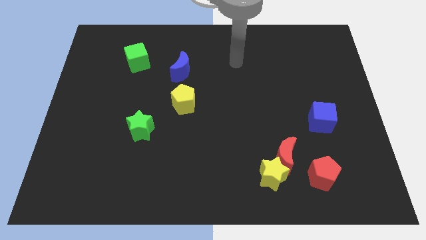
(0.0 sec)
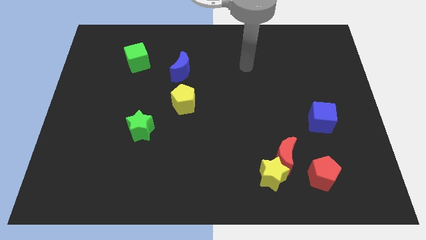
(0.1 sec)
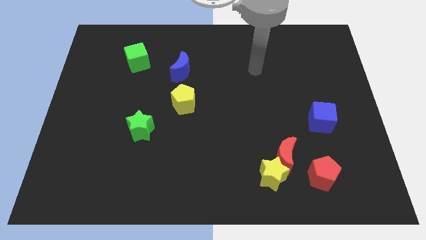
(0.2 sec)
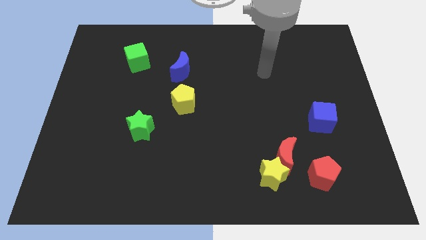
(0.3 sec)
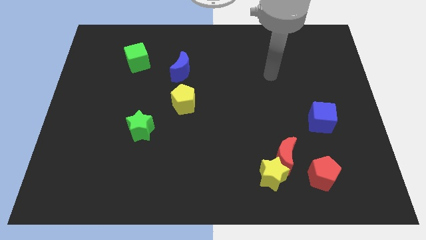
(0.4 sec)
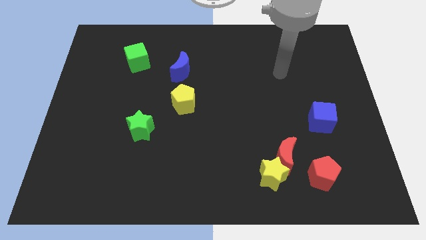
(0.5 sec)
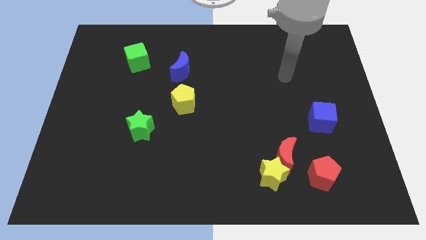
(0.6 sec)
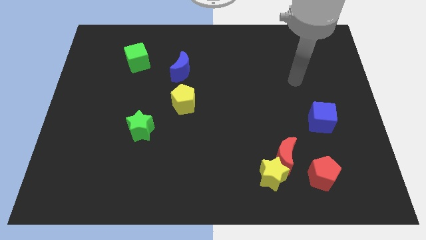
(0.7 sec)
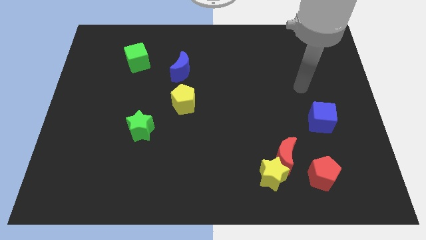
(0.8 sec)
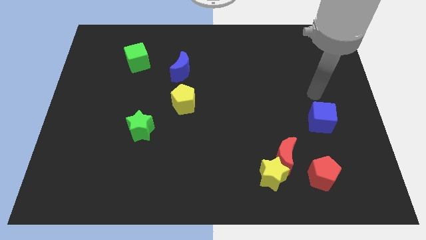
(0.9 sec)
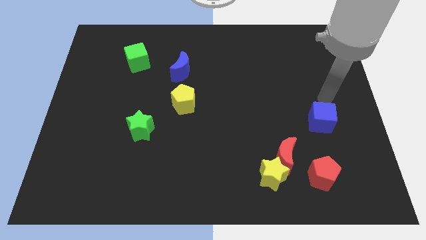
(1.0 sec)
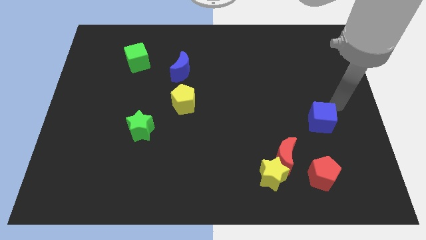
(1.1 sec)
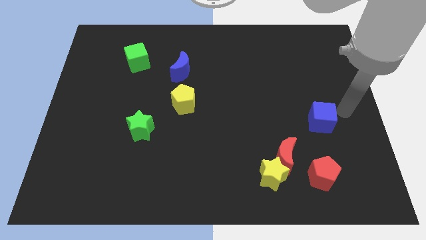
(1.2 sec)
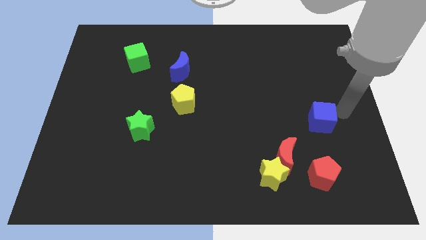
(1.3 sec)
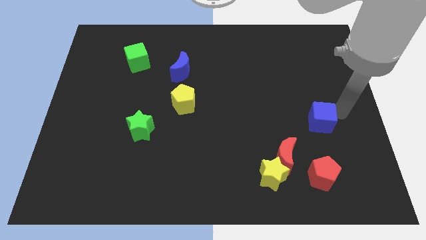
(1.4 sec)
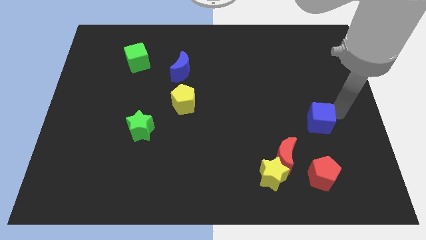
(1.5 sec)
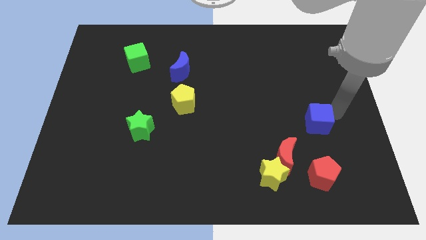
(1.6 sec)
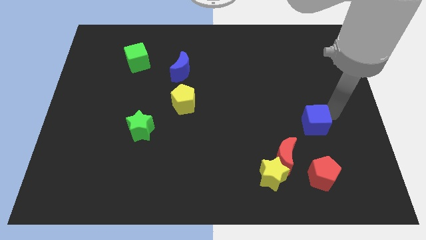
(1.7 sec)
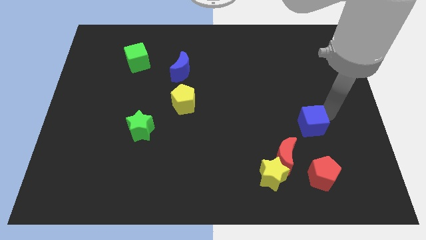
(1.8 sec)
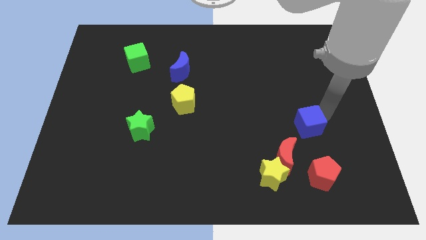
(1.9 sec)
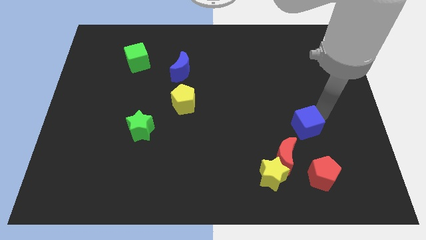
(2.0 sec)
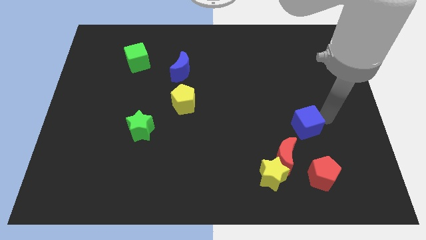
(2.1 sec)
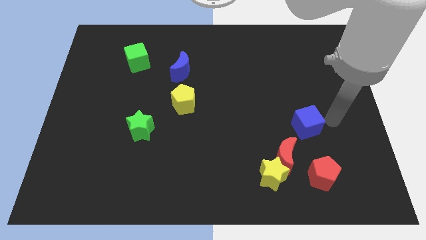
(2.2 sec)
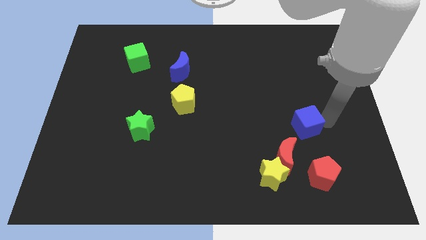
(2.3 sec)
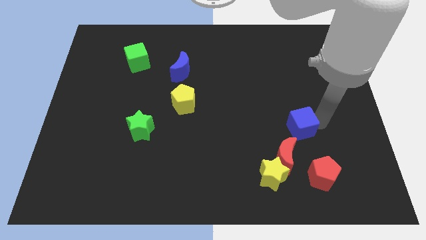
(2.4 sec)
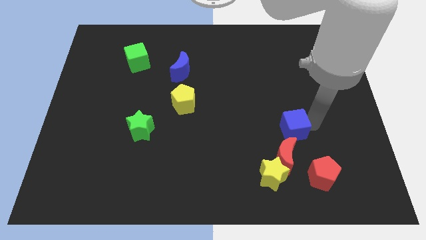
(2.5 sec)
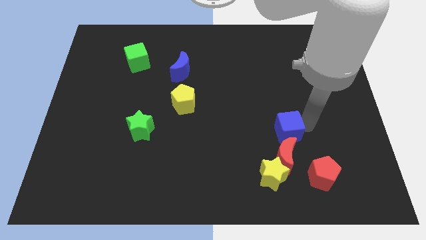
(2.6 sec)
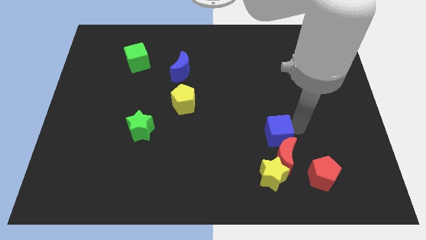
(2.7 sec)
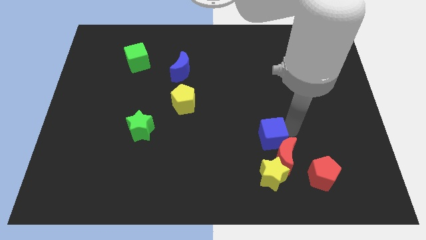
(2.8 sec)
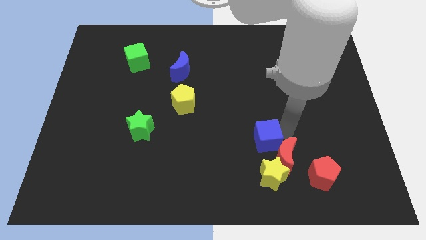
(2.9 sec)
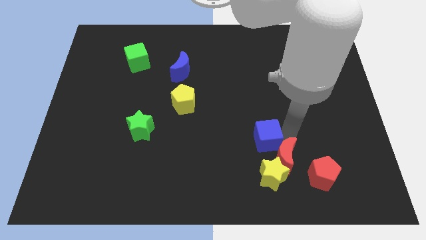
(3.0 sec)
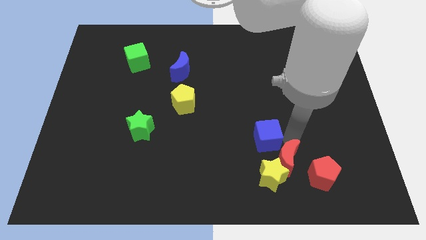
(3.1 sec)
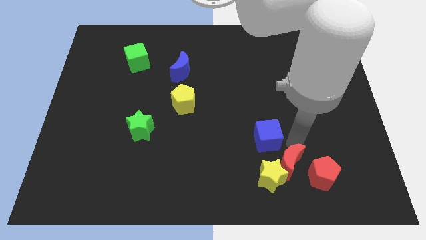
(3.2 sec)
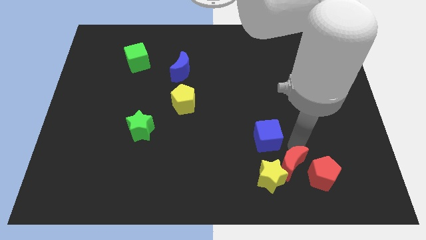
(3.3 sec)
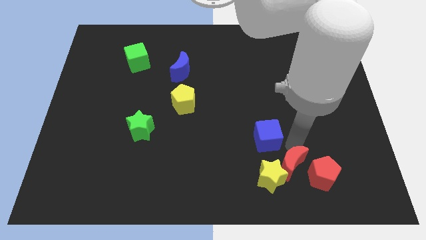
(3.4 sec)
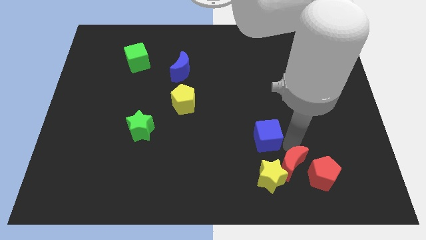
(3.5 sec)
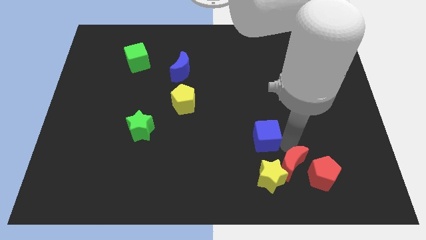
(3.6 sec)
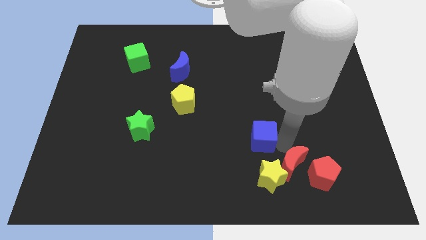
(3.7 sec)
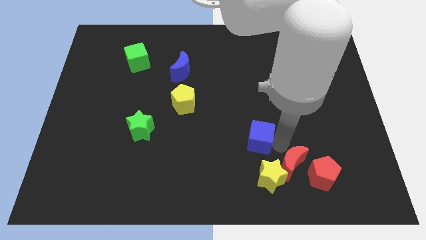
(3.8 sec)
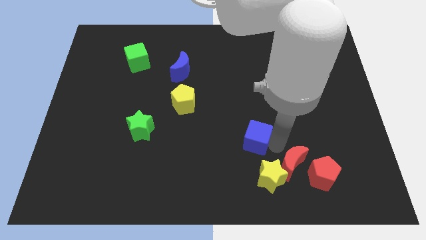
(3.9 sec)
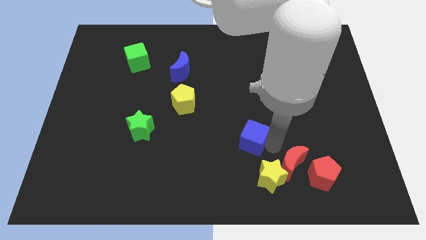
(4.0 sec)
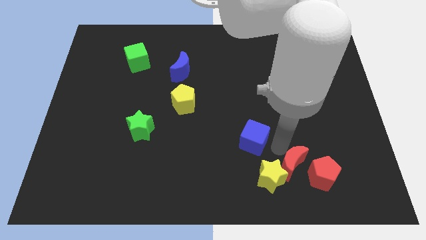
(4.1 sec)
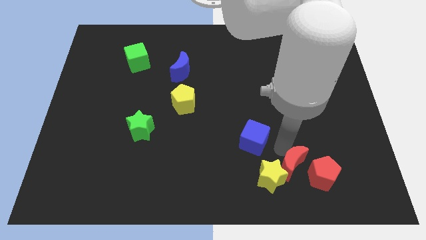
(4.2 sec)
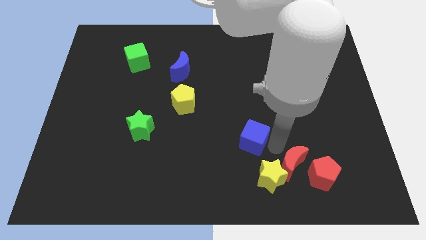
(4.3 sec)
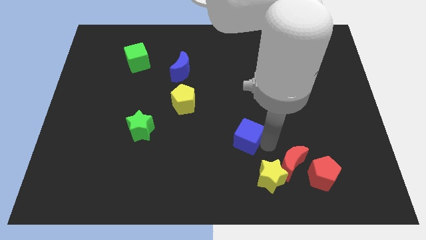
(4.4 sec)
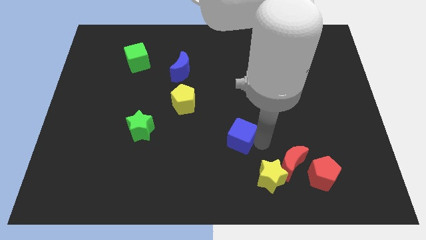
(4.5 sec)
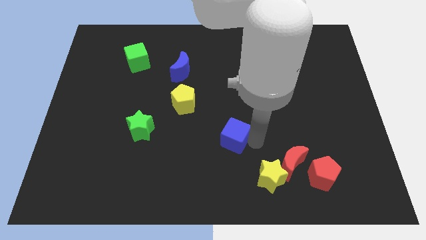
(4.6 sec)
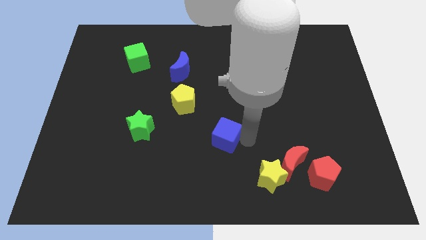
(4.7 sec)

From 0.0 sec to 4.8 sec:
push the blue cube left

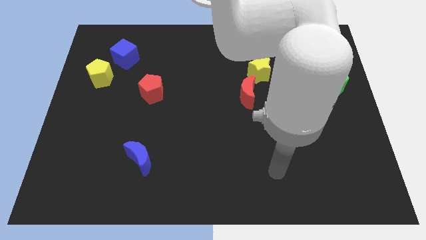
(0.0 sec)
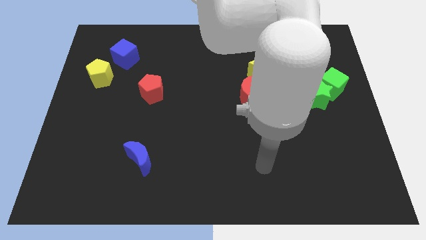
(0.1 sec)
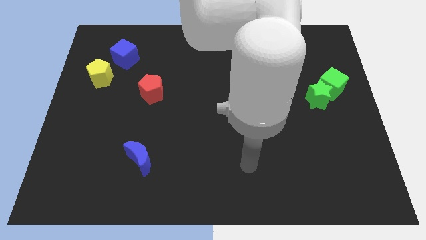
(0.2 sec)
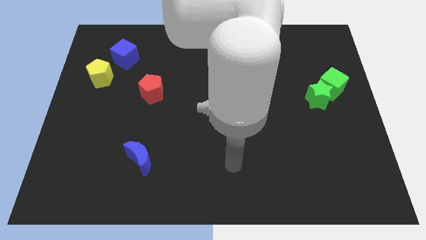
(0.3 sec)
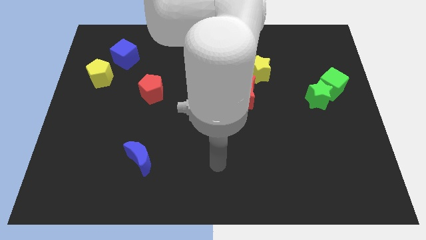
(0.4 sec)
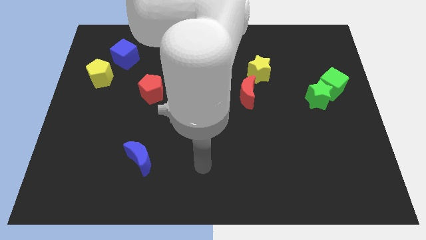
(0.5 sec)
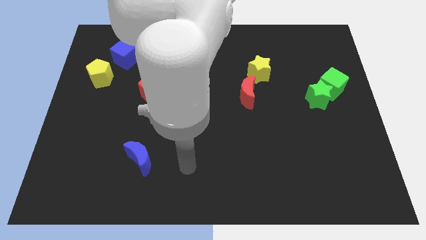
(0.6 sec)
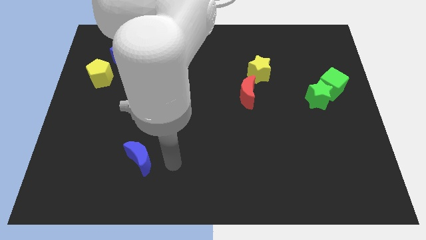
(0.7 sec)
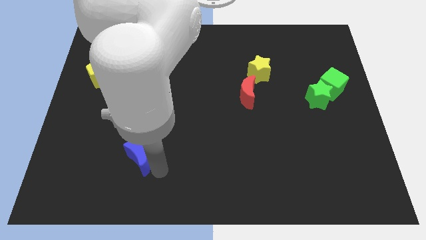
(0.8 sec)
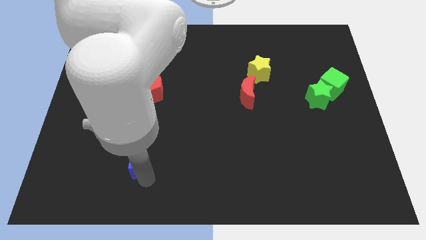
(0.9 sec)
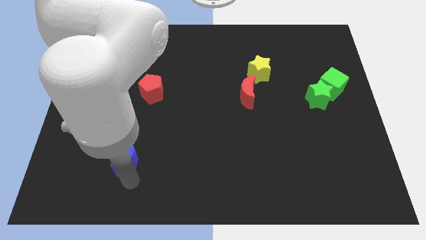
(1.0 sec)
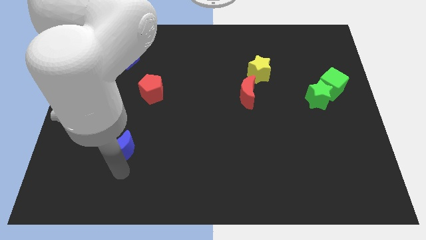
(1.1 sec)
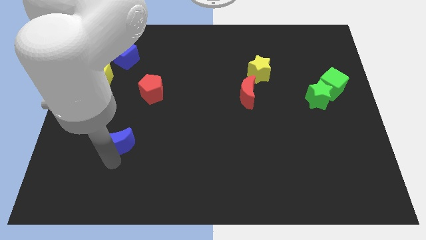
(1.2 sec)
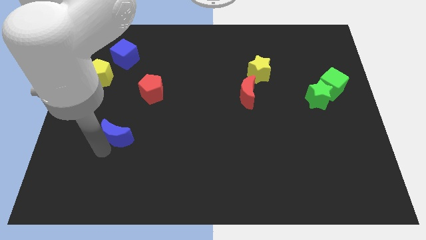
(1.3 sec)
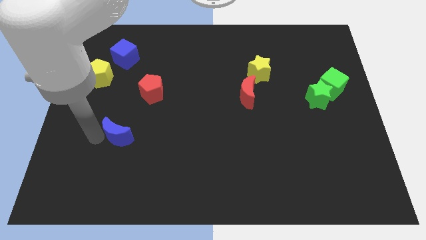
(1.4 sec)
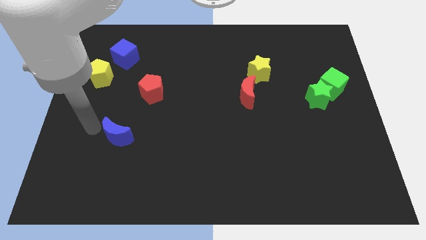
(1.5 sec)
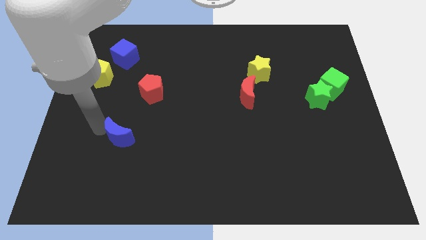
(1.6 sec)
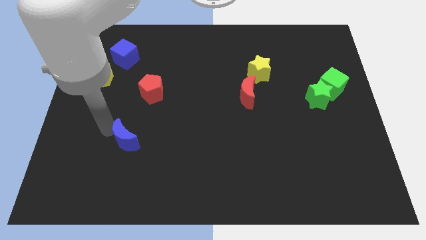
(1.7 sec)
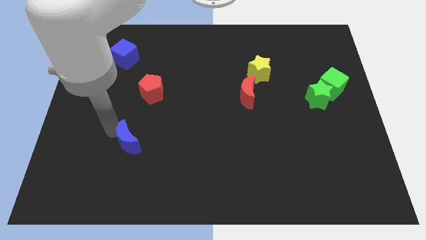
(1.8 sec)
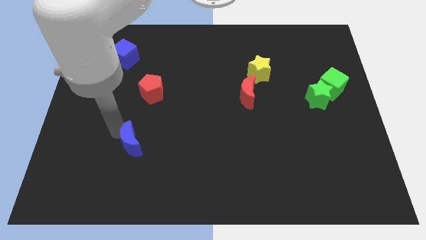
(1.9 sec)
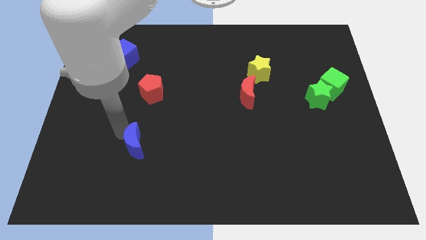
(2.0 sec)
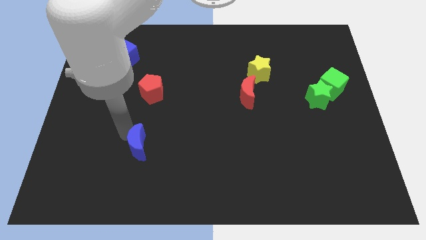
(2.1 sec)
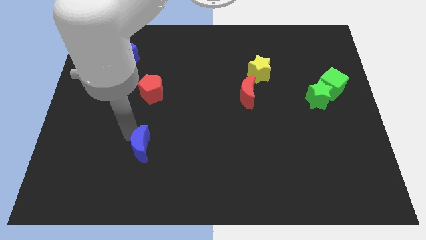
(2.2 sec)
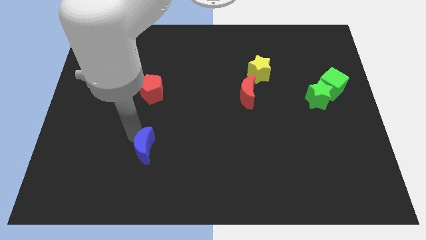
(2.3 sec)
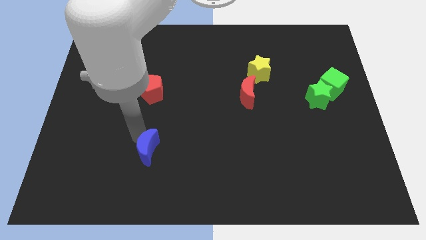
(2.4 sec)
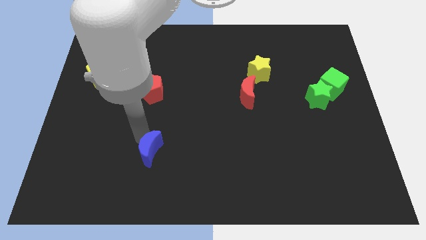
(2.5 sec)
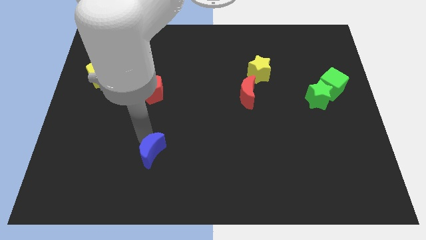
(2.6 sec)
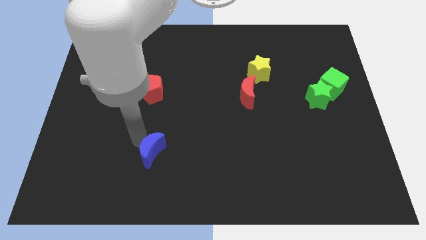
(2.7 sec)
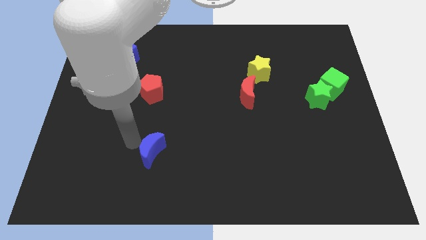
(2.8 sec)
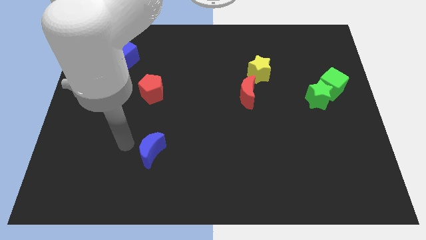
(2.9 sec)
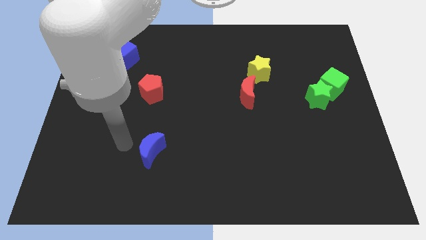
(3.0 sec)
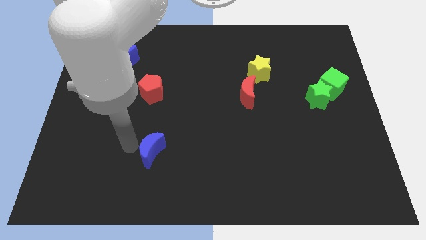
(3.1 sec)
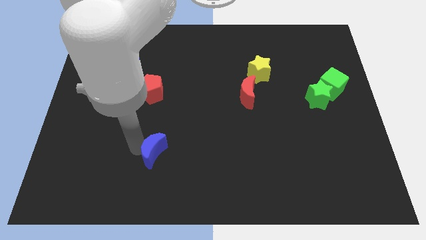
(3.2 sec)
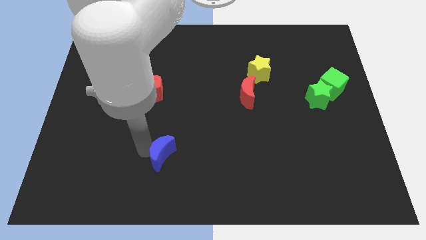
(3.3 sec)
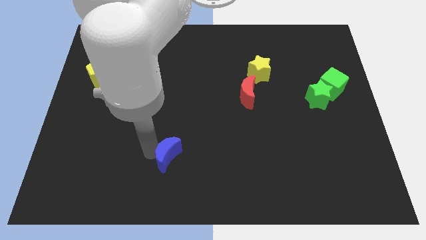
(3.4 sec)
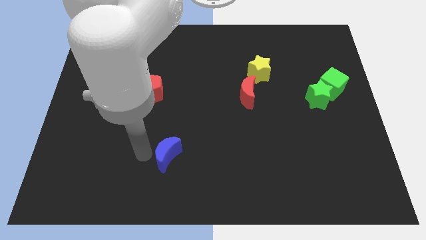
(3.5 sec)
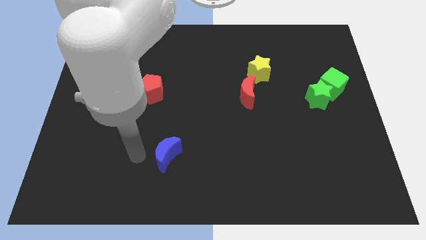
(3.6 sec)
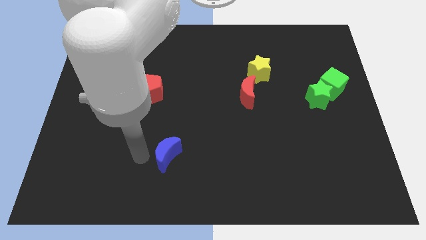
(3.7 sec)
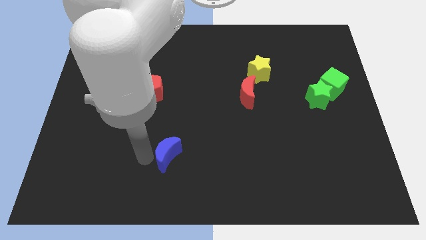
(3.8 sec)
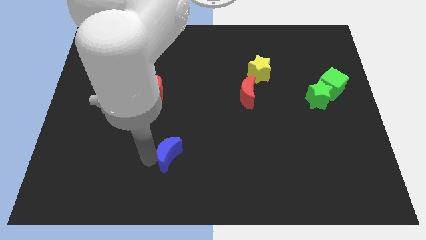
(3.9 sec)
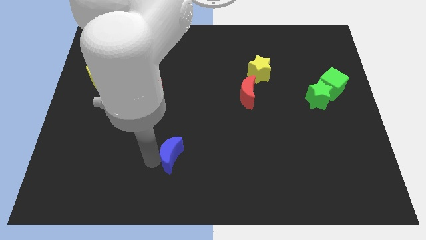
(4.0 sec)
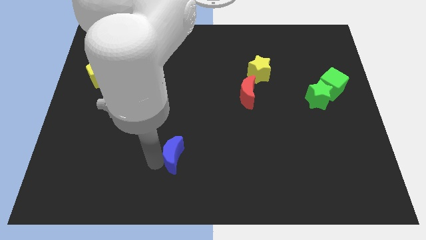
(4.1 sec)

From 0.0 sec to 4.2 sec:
push the blue moon right a little bit
